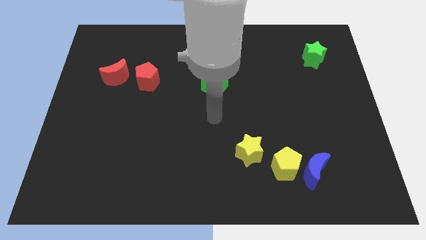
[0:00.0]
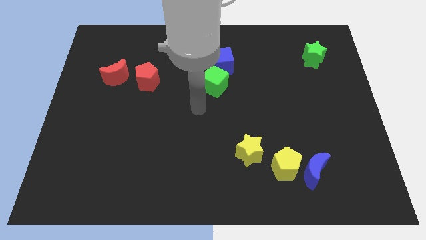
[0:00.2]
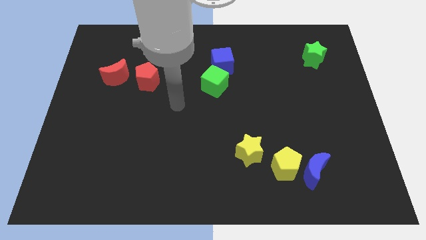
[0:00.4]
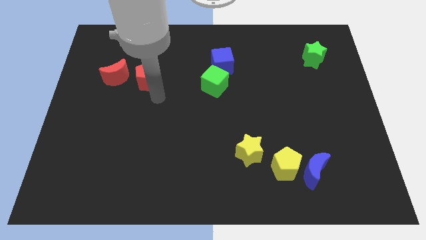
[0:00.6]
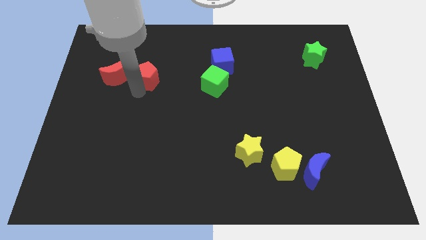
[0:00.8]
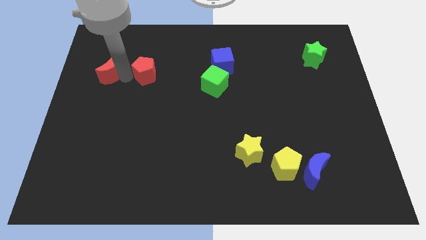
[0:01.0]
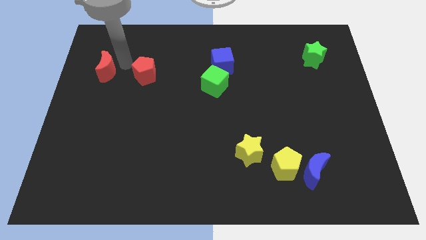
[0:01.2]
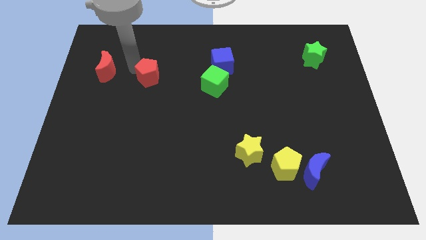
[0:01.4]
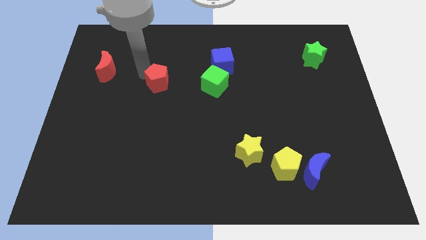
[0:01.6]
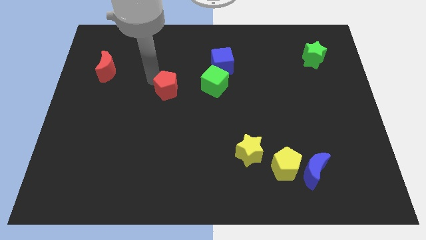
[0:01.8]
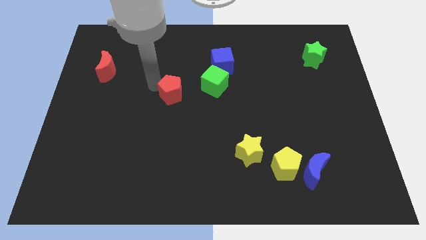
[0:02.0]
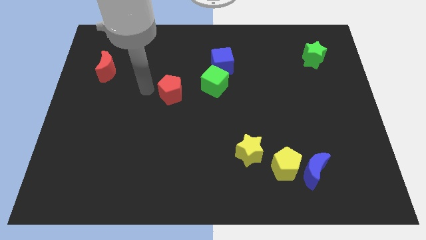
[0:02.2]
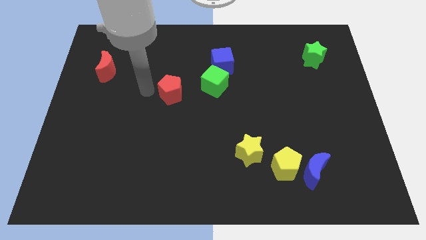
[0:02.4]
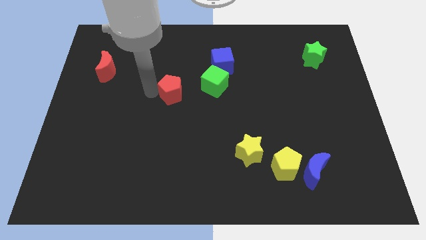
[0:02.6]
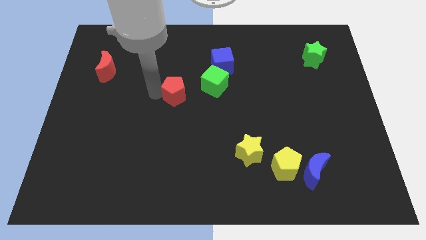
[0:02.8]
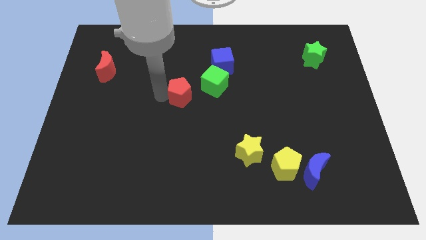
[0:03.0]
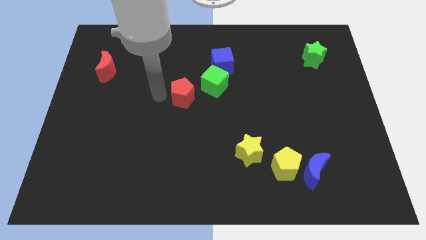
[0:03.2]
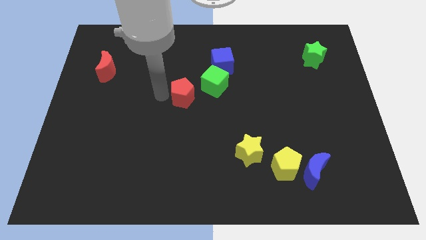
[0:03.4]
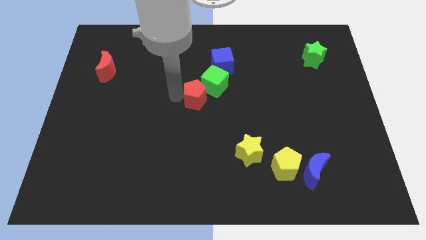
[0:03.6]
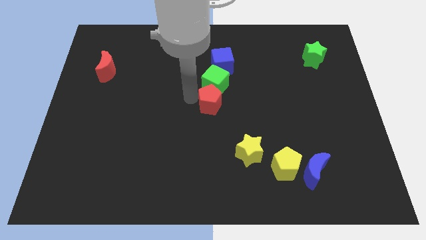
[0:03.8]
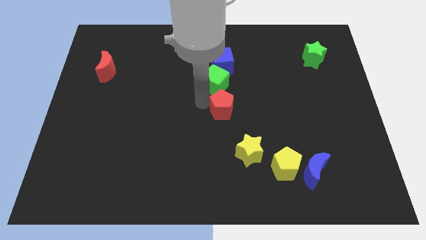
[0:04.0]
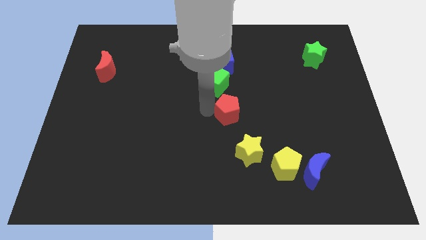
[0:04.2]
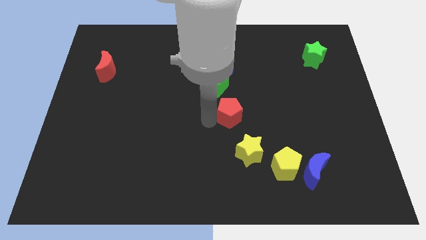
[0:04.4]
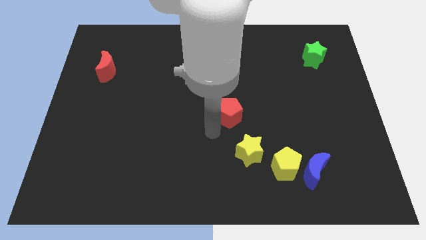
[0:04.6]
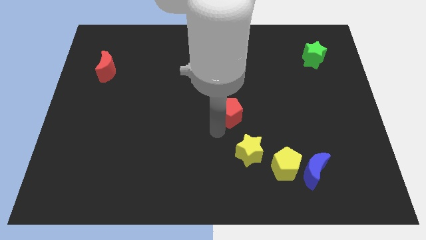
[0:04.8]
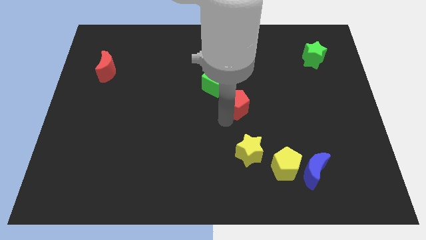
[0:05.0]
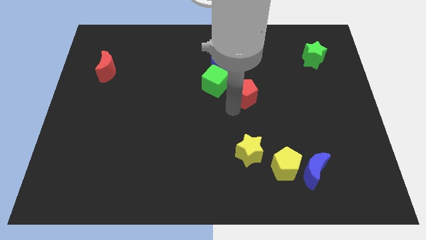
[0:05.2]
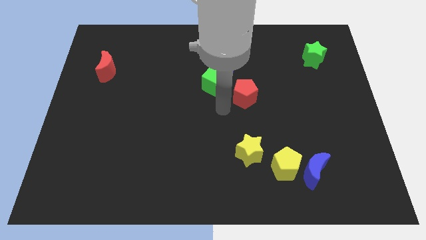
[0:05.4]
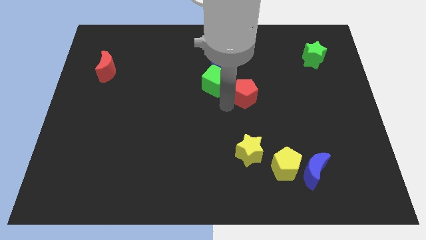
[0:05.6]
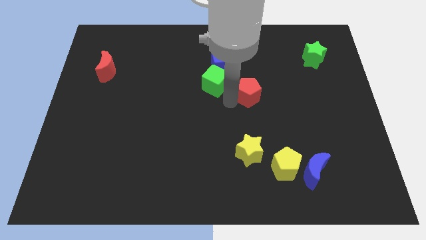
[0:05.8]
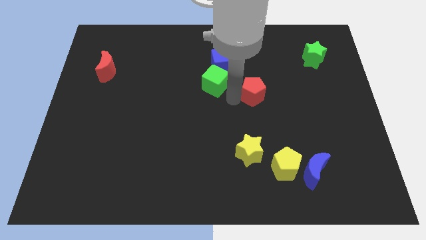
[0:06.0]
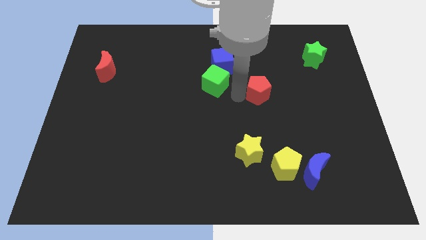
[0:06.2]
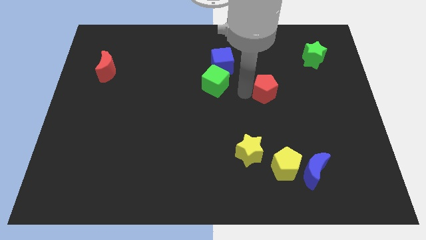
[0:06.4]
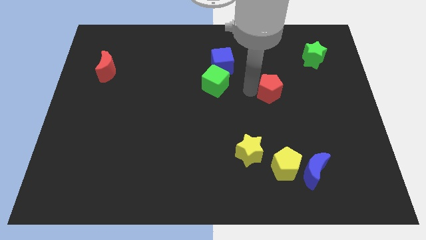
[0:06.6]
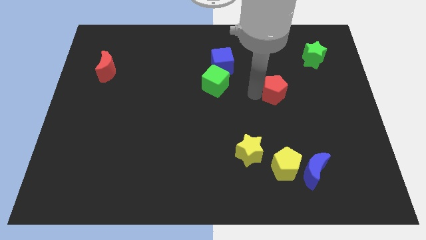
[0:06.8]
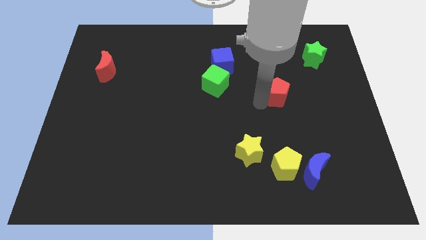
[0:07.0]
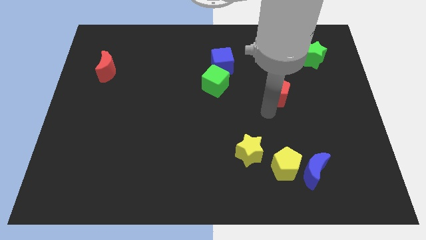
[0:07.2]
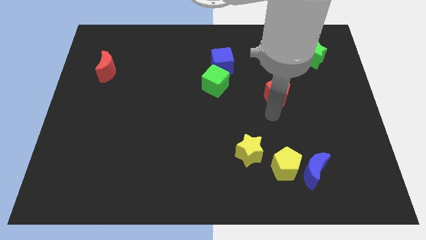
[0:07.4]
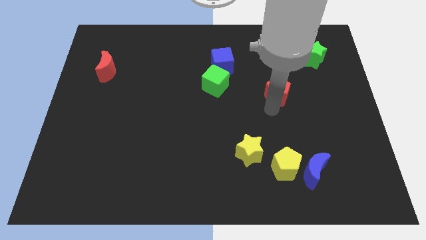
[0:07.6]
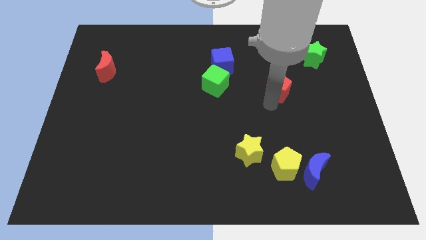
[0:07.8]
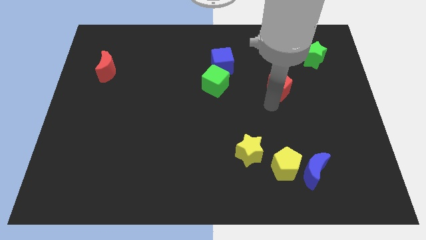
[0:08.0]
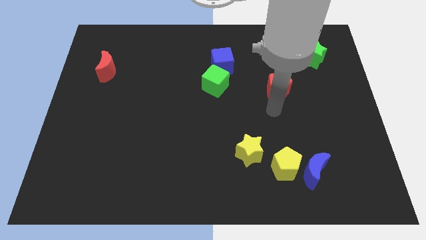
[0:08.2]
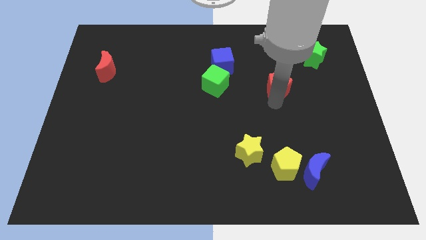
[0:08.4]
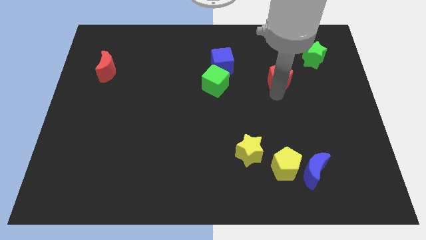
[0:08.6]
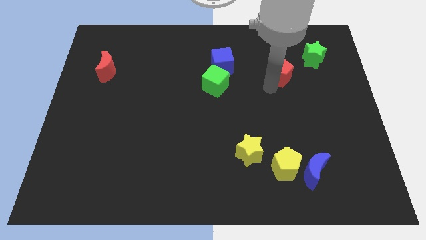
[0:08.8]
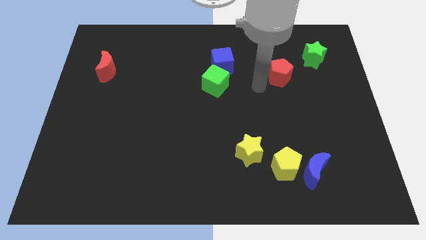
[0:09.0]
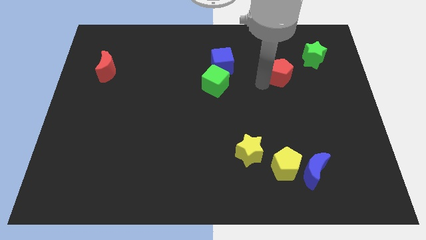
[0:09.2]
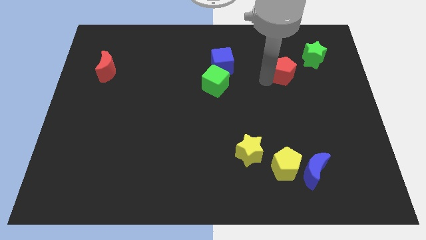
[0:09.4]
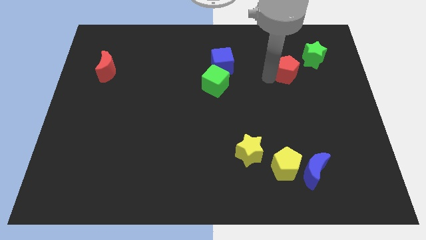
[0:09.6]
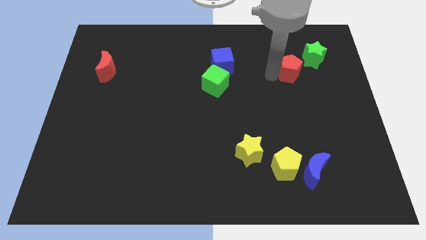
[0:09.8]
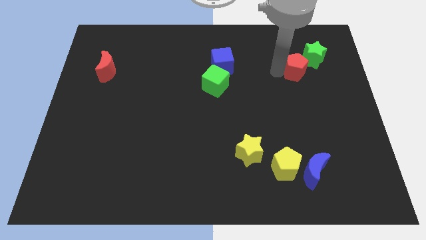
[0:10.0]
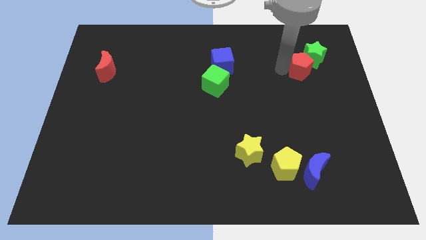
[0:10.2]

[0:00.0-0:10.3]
slide the red pentagon next to the green star

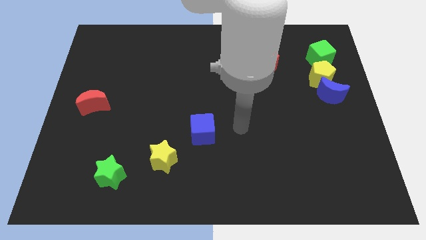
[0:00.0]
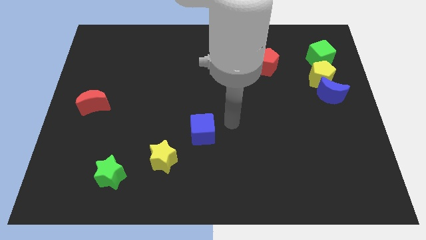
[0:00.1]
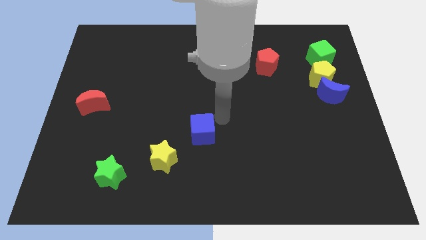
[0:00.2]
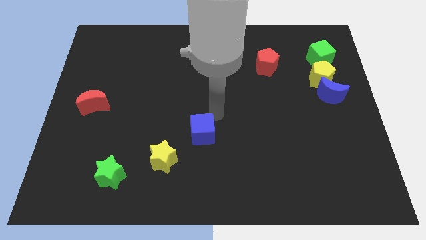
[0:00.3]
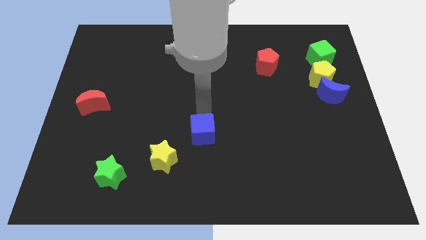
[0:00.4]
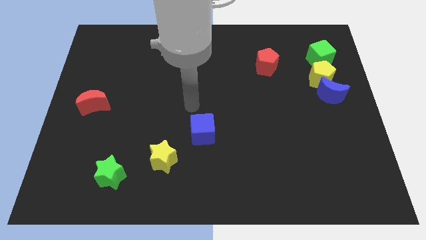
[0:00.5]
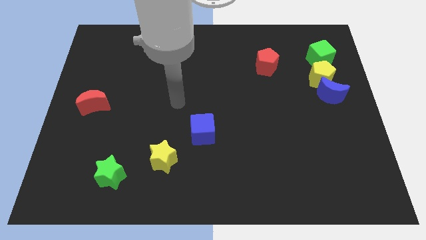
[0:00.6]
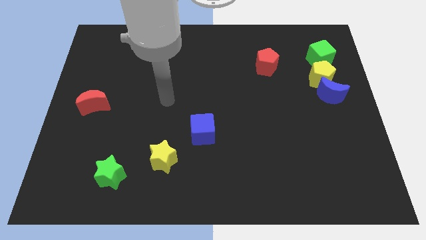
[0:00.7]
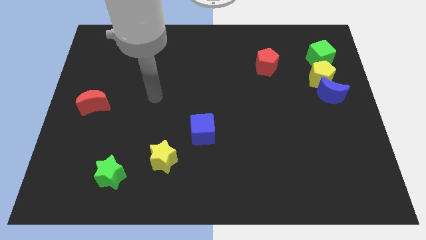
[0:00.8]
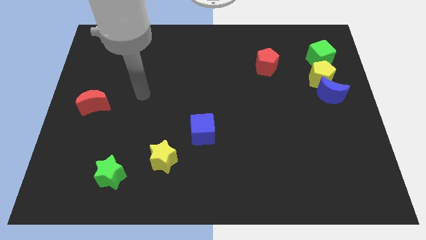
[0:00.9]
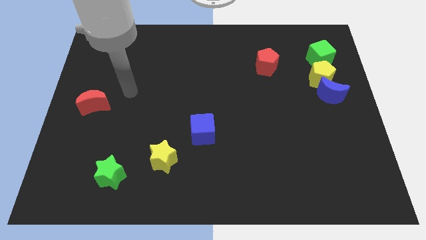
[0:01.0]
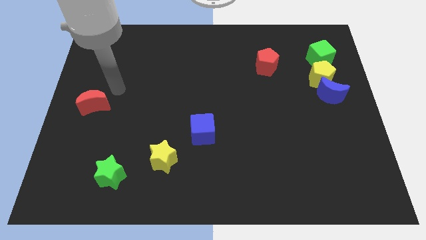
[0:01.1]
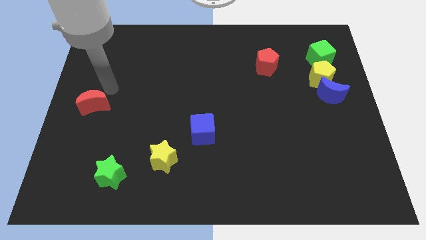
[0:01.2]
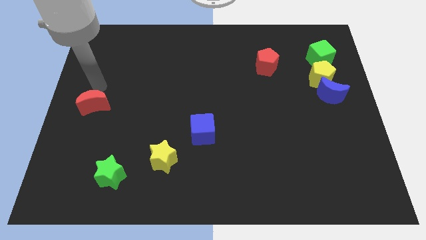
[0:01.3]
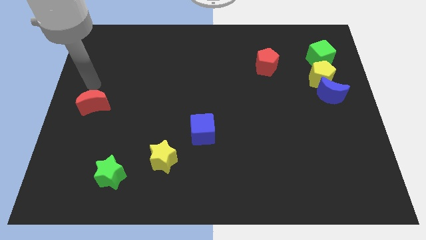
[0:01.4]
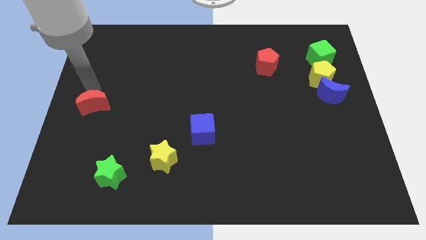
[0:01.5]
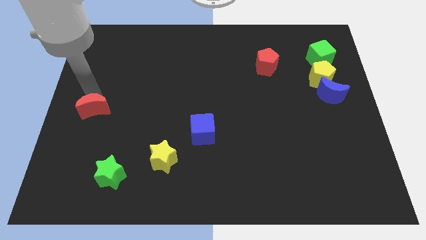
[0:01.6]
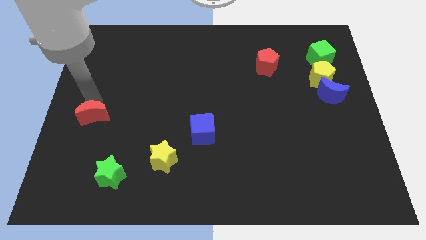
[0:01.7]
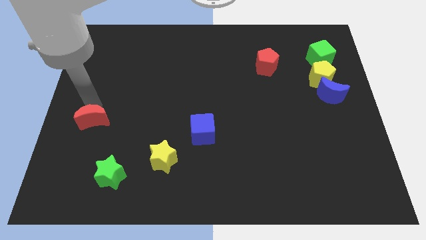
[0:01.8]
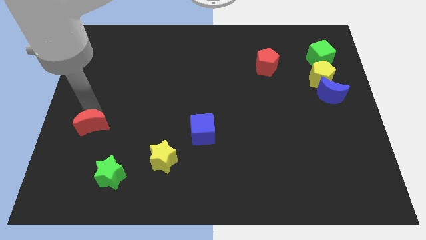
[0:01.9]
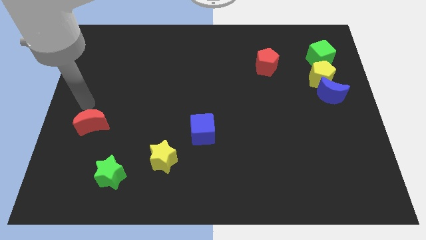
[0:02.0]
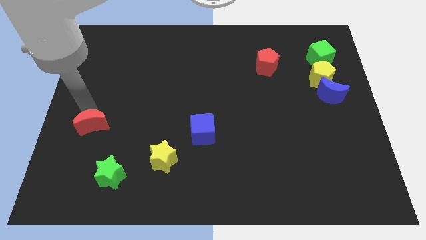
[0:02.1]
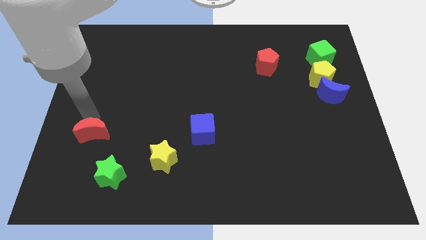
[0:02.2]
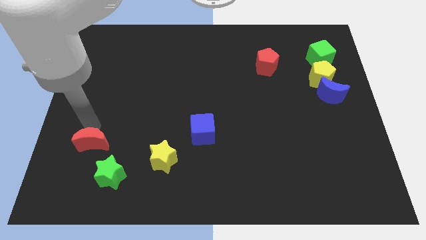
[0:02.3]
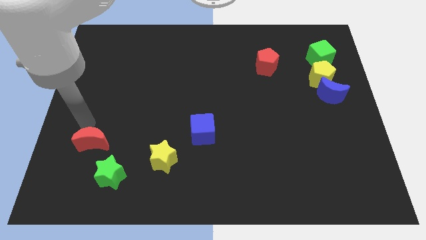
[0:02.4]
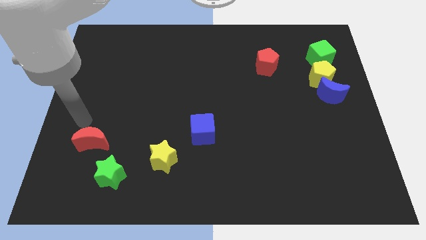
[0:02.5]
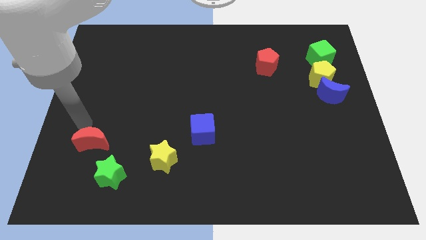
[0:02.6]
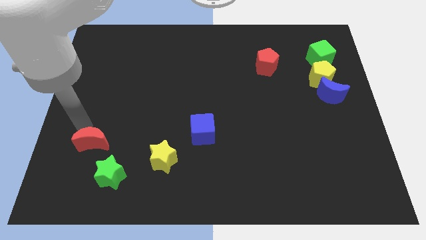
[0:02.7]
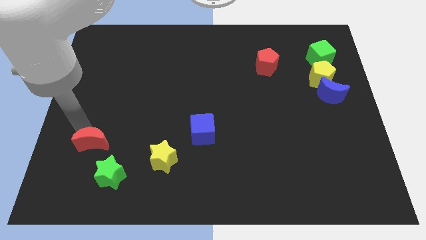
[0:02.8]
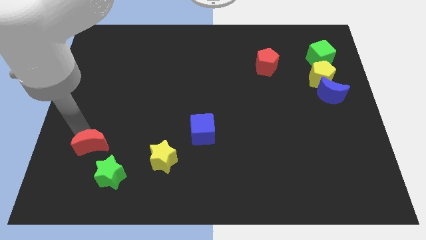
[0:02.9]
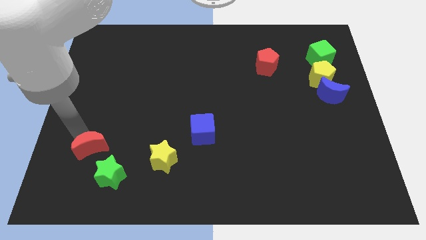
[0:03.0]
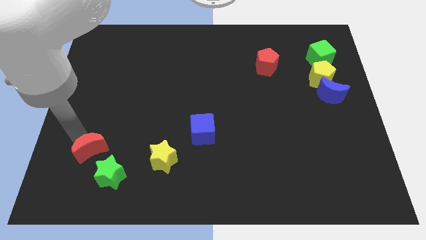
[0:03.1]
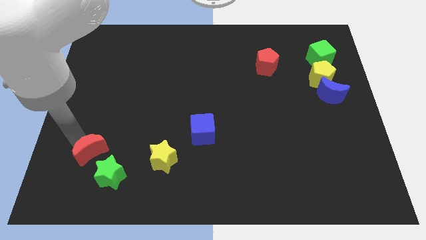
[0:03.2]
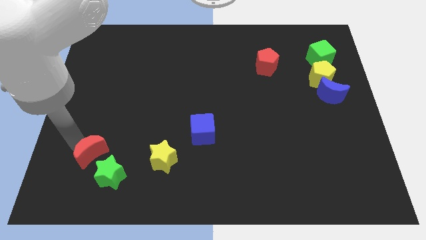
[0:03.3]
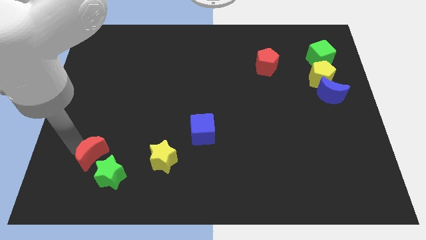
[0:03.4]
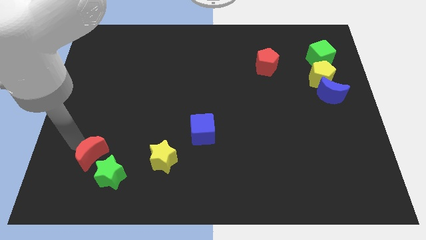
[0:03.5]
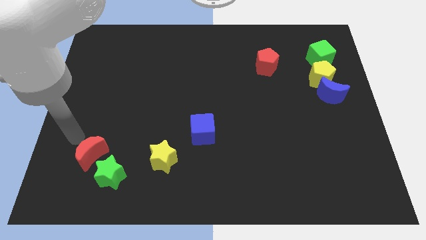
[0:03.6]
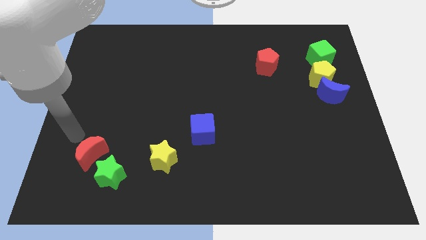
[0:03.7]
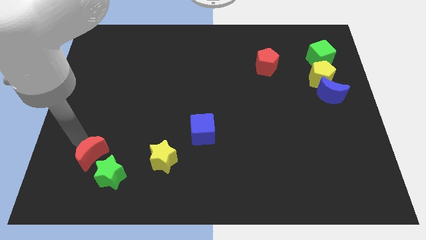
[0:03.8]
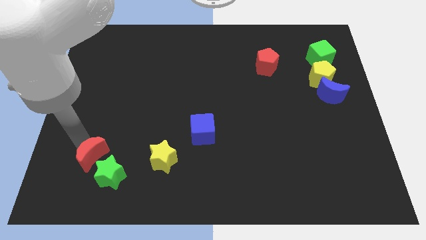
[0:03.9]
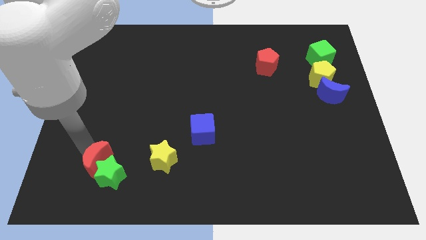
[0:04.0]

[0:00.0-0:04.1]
put the red moon close to the green star
